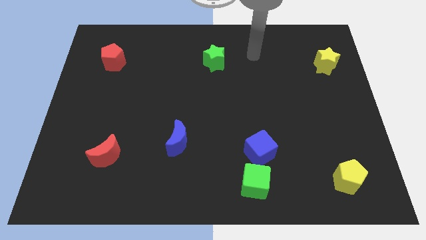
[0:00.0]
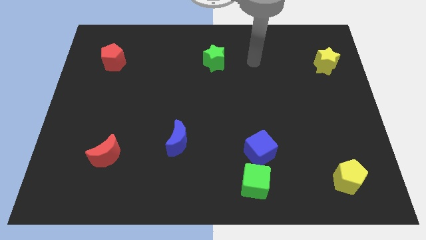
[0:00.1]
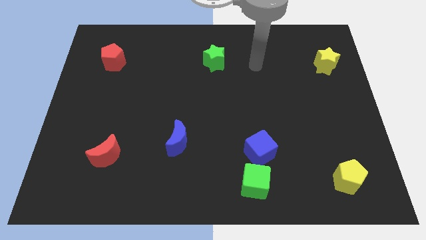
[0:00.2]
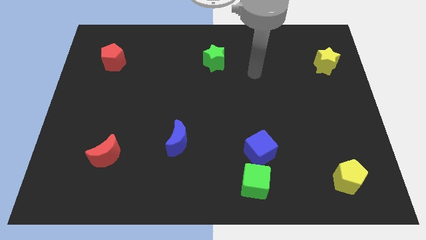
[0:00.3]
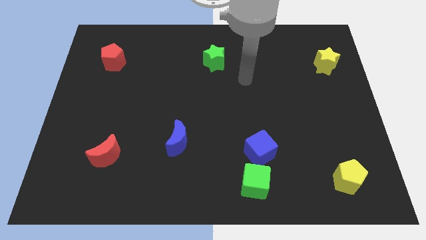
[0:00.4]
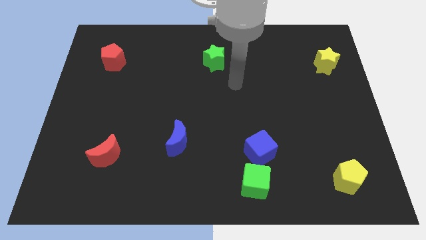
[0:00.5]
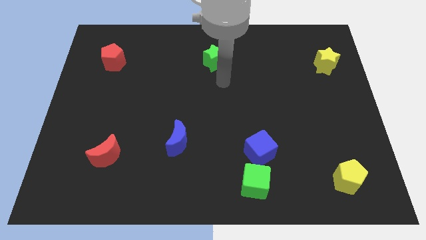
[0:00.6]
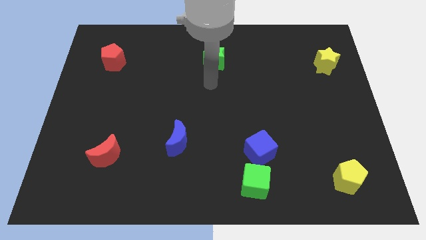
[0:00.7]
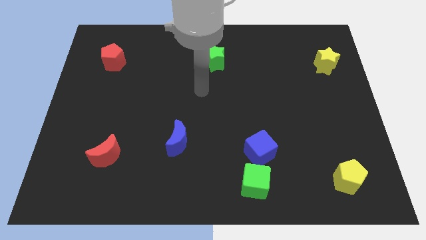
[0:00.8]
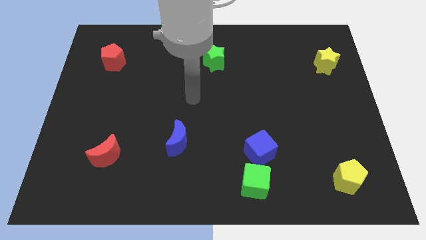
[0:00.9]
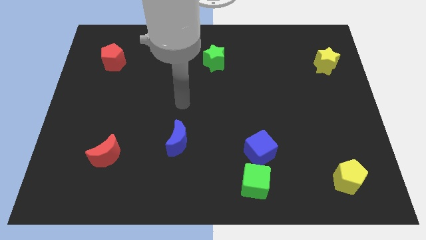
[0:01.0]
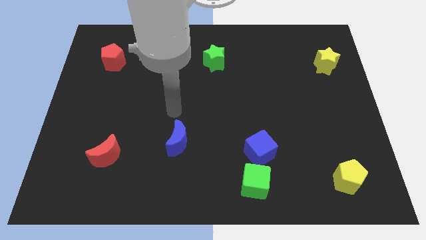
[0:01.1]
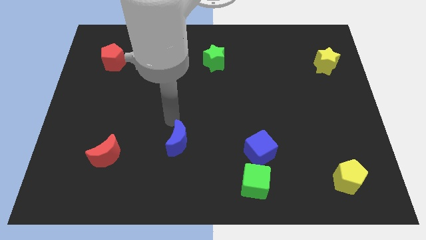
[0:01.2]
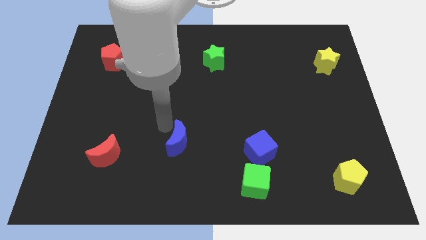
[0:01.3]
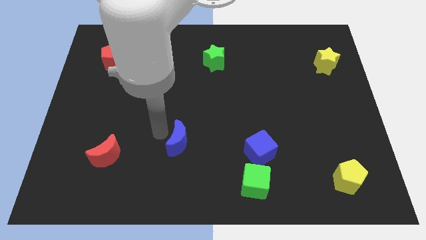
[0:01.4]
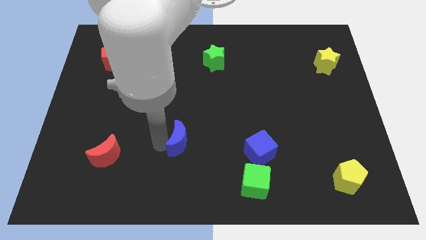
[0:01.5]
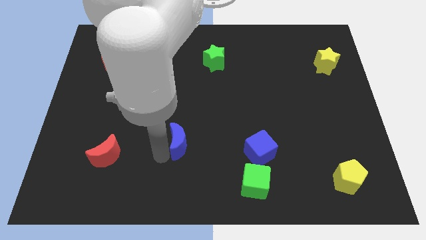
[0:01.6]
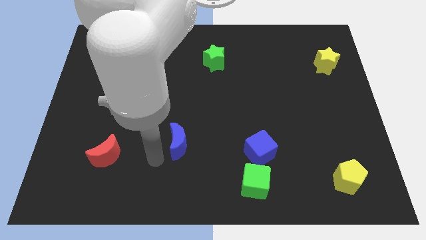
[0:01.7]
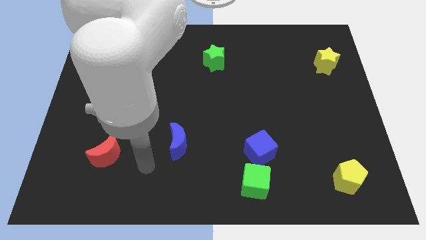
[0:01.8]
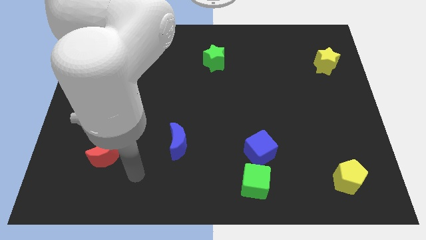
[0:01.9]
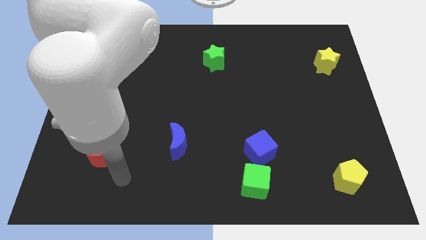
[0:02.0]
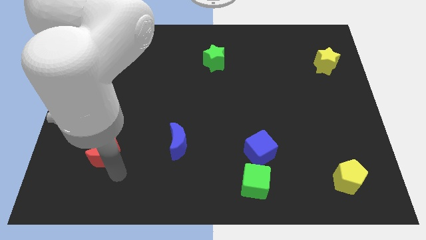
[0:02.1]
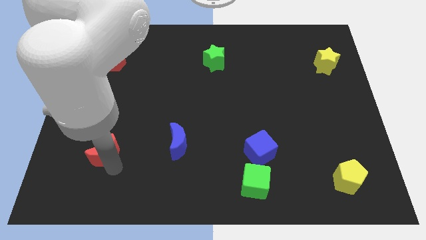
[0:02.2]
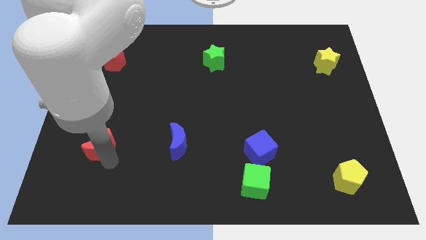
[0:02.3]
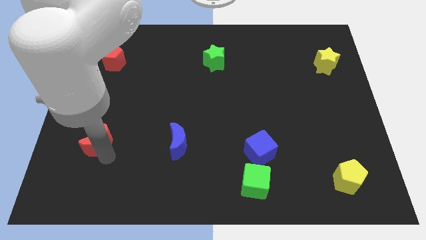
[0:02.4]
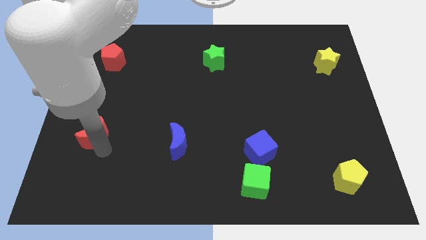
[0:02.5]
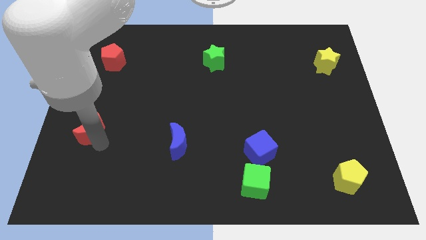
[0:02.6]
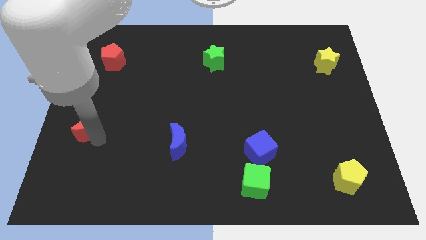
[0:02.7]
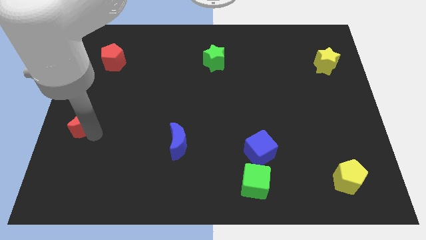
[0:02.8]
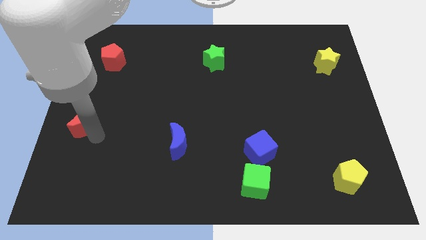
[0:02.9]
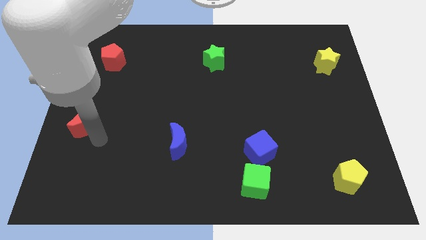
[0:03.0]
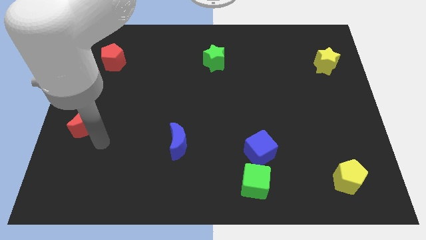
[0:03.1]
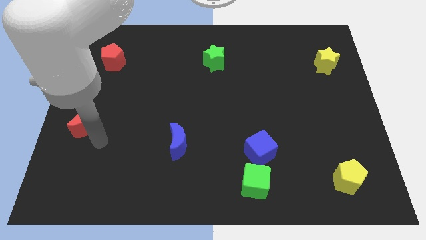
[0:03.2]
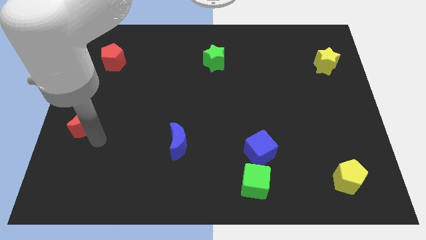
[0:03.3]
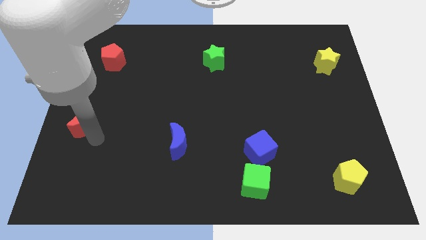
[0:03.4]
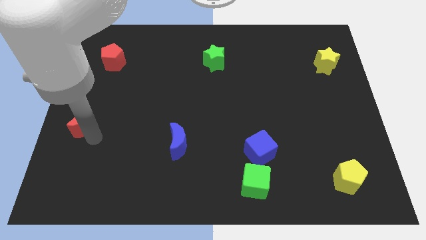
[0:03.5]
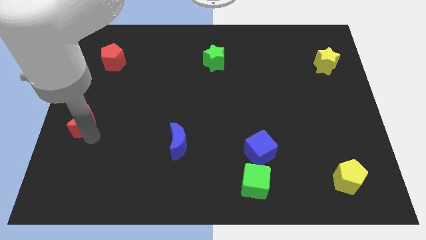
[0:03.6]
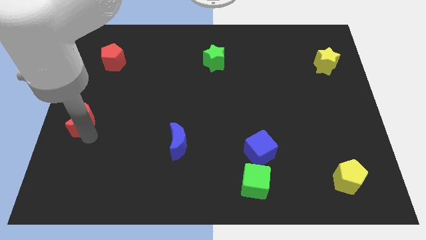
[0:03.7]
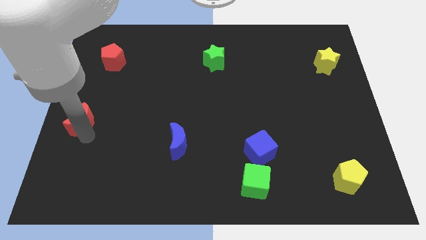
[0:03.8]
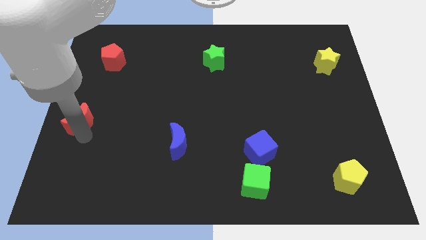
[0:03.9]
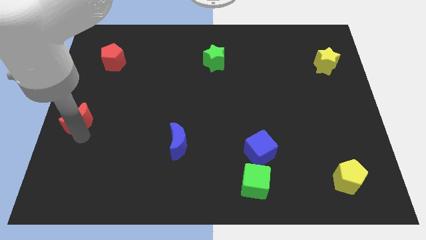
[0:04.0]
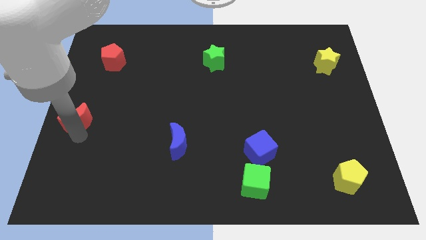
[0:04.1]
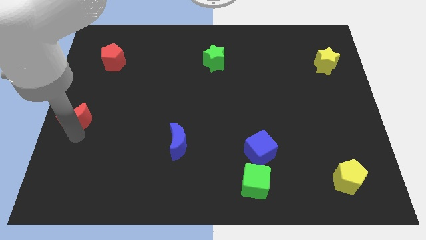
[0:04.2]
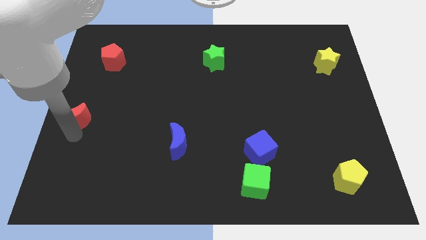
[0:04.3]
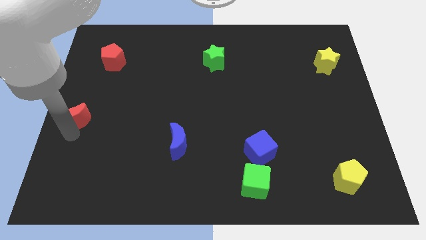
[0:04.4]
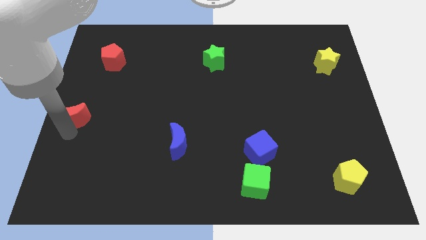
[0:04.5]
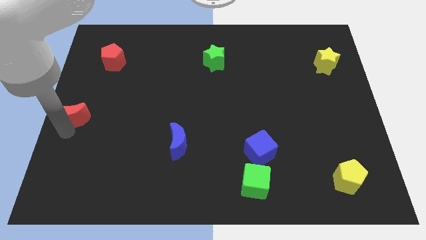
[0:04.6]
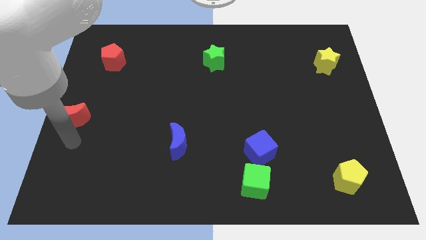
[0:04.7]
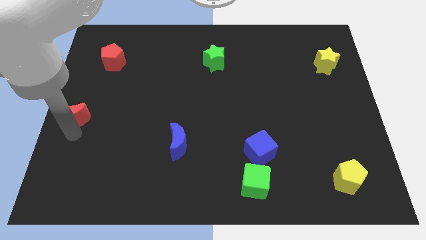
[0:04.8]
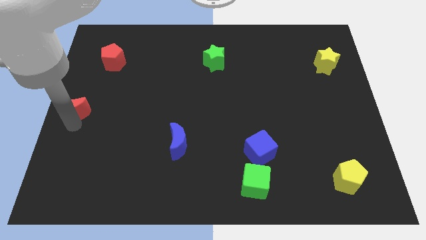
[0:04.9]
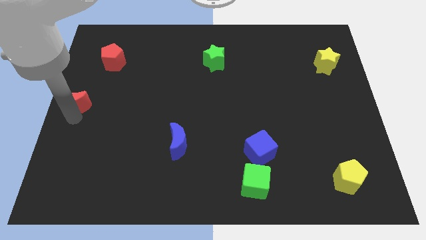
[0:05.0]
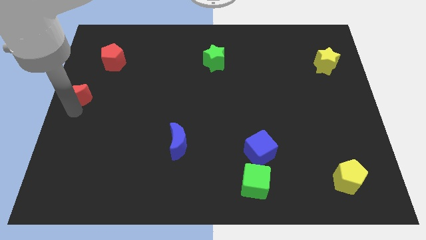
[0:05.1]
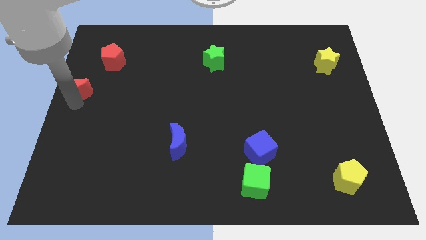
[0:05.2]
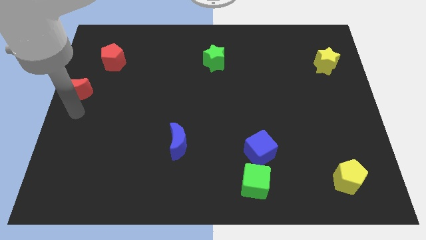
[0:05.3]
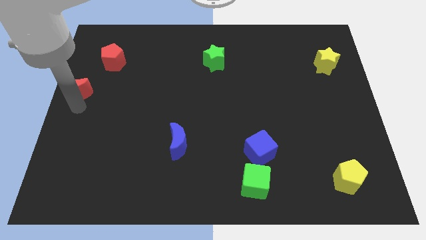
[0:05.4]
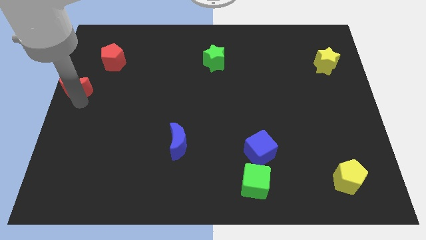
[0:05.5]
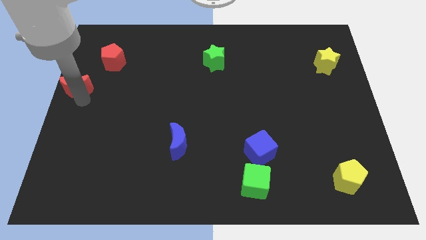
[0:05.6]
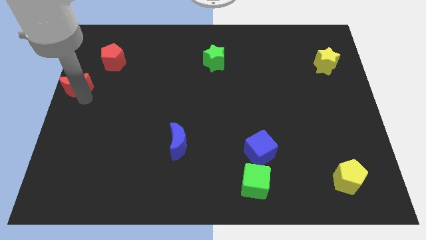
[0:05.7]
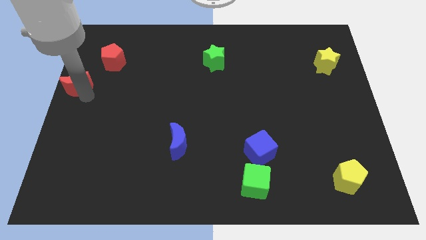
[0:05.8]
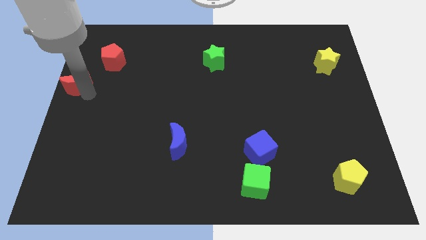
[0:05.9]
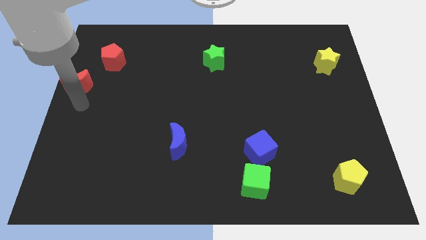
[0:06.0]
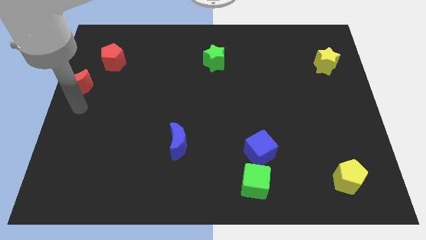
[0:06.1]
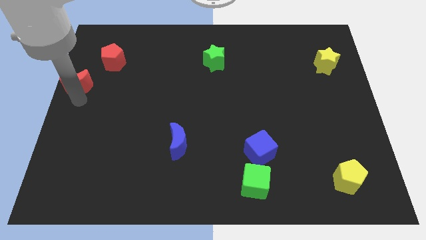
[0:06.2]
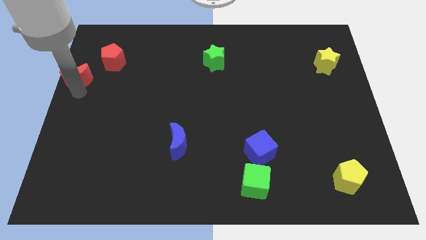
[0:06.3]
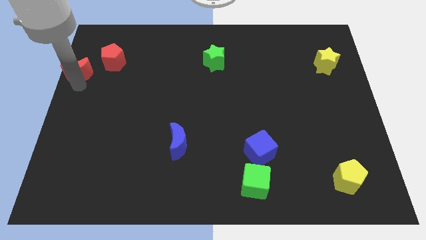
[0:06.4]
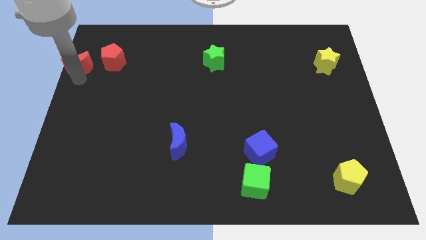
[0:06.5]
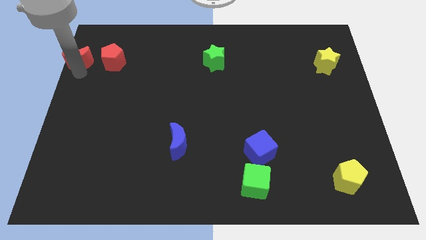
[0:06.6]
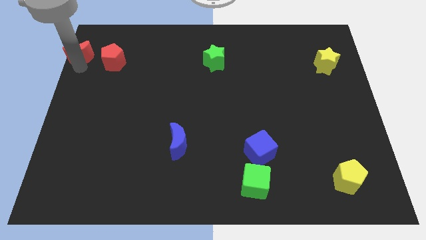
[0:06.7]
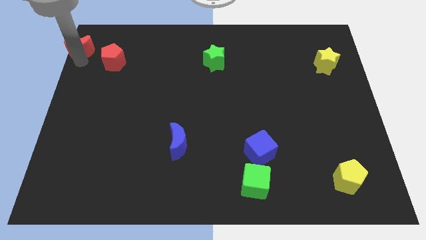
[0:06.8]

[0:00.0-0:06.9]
push the red moon to the upper left corner
